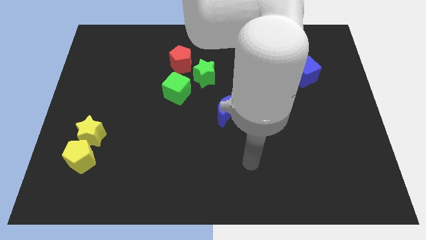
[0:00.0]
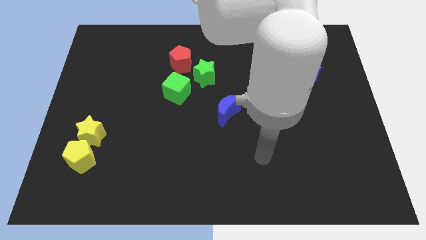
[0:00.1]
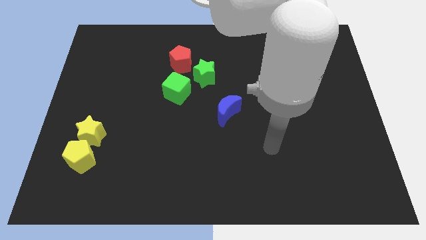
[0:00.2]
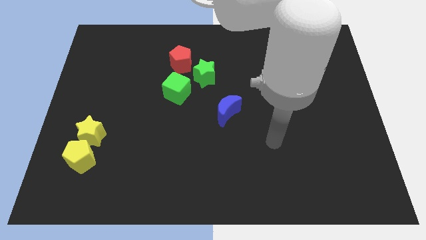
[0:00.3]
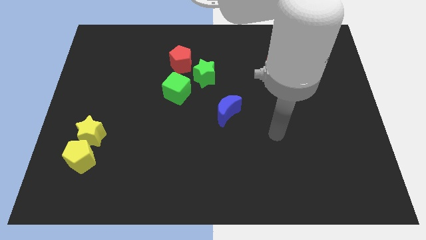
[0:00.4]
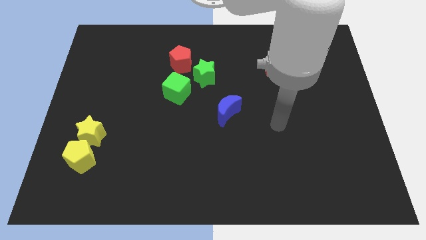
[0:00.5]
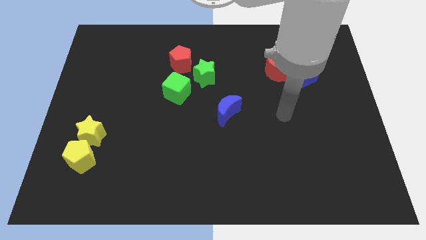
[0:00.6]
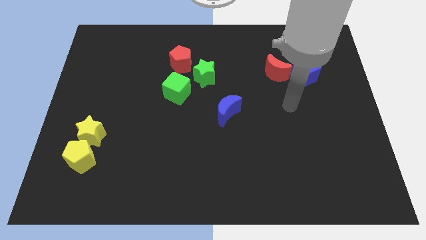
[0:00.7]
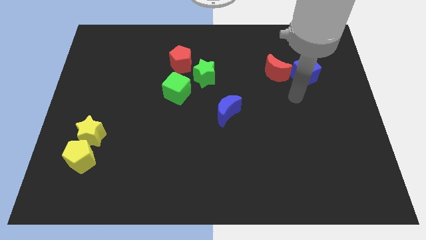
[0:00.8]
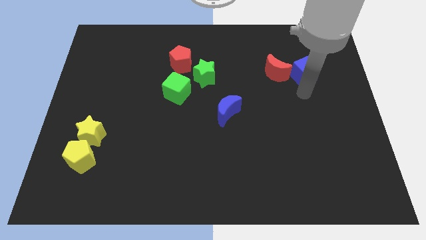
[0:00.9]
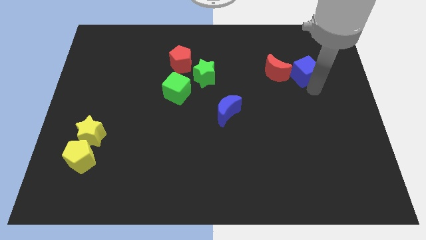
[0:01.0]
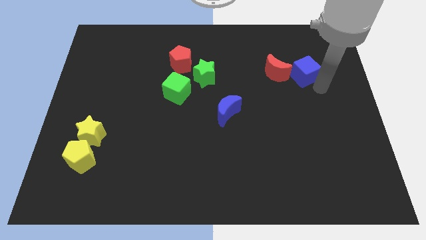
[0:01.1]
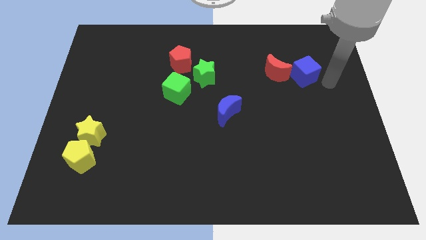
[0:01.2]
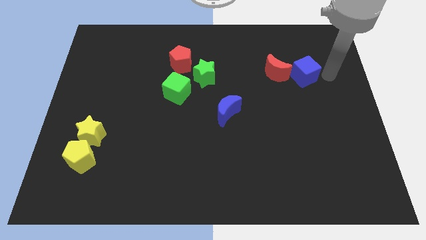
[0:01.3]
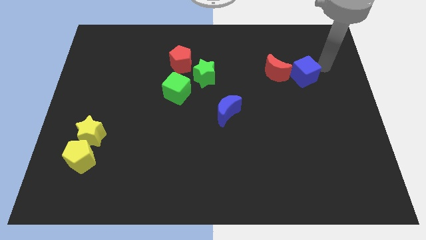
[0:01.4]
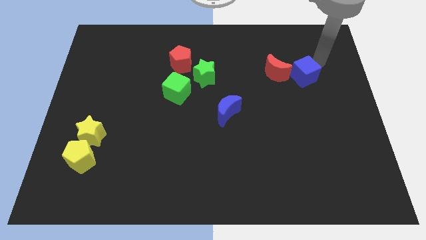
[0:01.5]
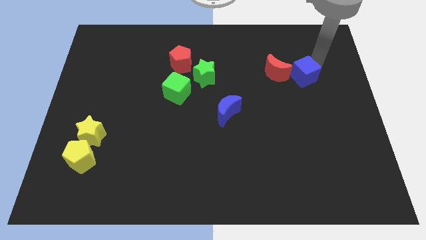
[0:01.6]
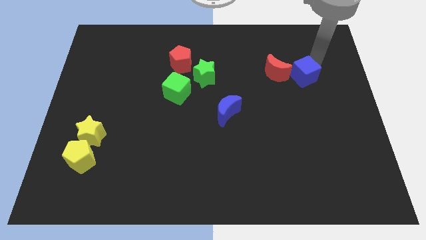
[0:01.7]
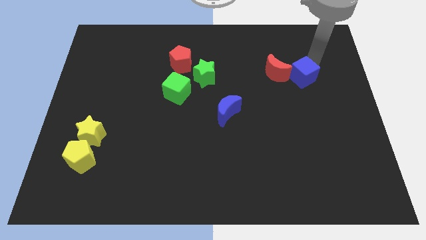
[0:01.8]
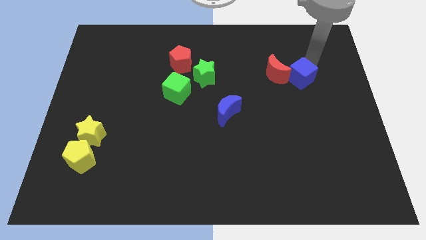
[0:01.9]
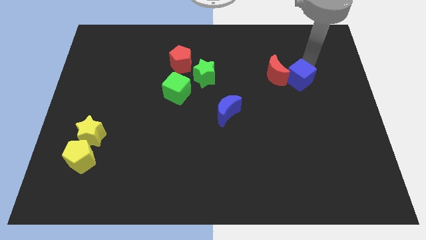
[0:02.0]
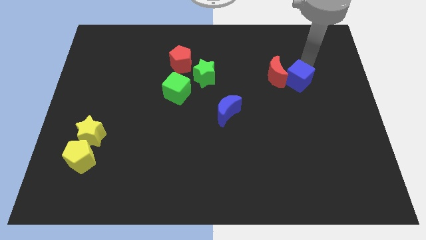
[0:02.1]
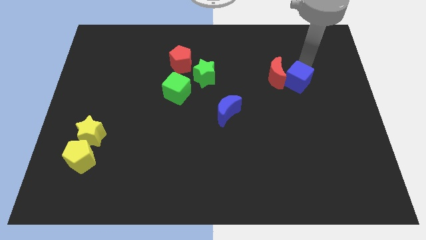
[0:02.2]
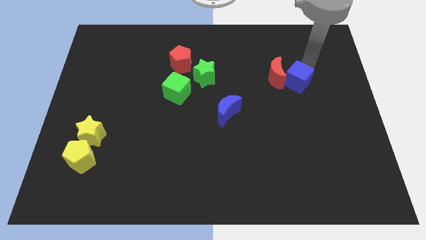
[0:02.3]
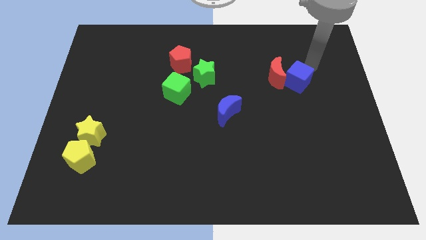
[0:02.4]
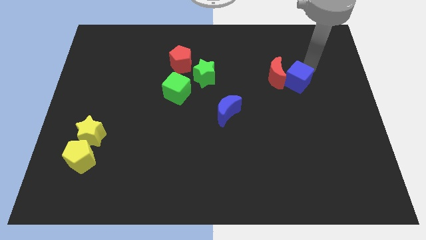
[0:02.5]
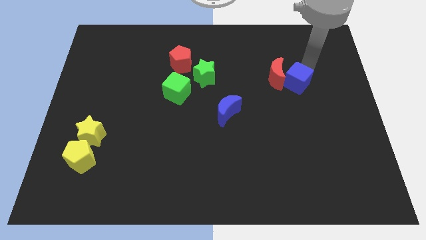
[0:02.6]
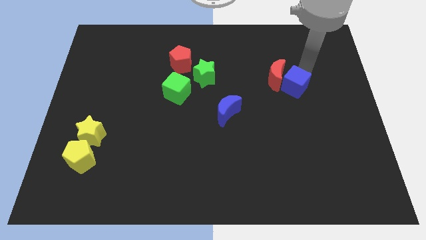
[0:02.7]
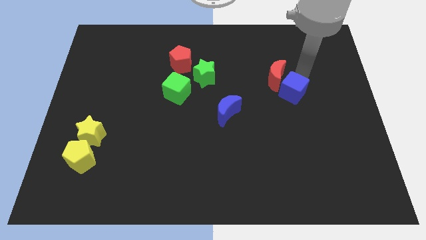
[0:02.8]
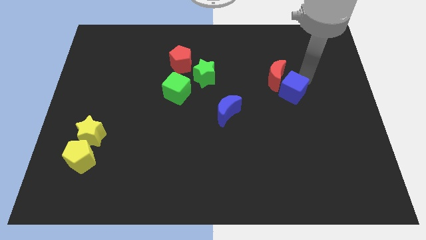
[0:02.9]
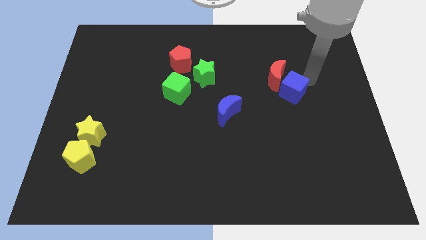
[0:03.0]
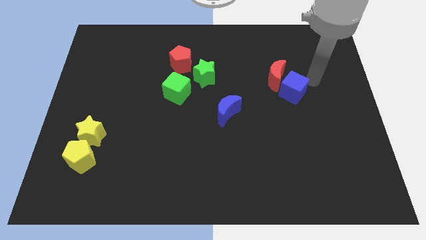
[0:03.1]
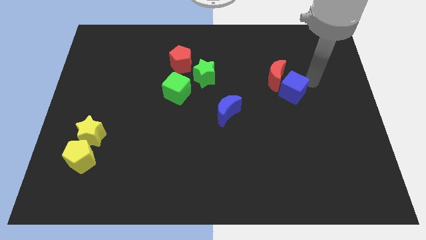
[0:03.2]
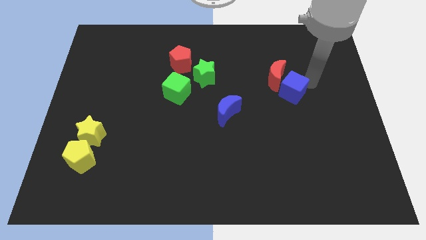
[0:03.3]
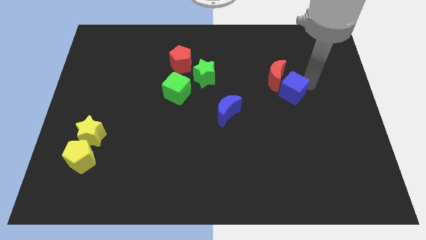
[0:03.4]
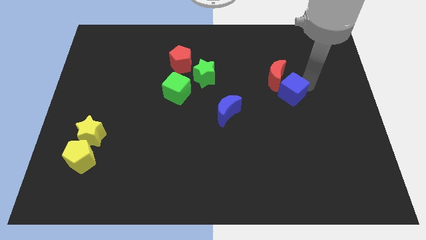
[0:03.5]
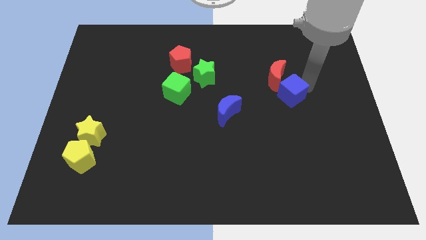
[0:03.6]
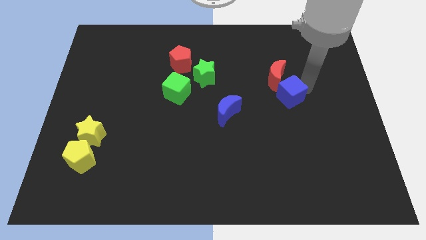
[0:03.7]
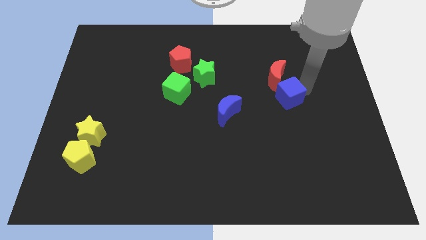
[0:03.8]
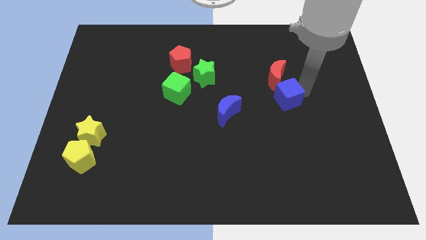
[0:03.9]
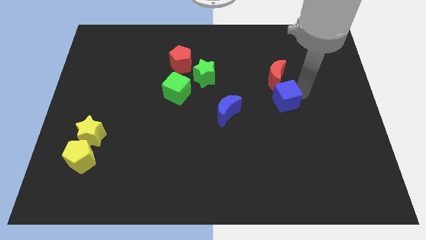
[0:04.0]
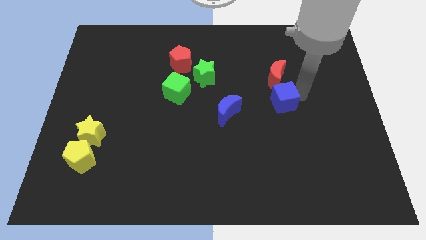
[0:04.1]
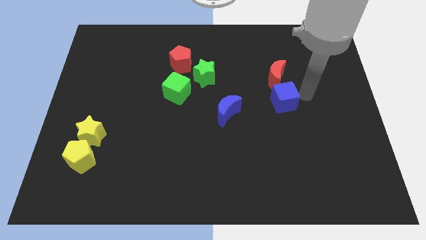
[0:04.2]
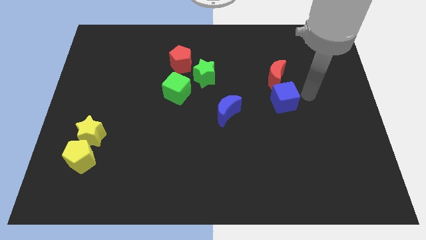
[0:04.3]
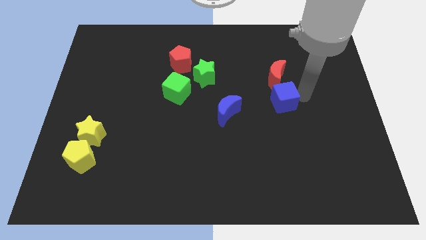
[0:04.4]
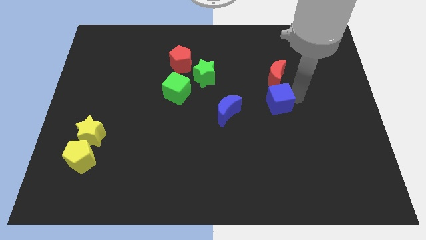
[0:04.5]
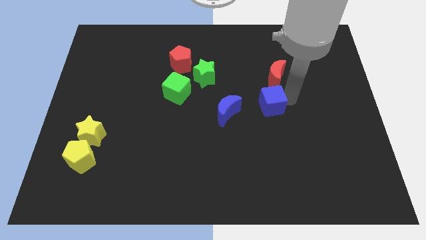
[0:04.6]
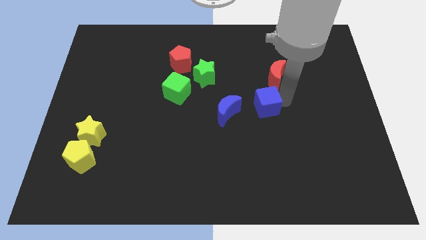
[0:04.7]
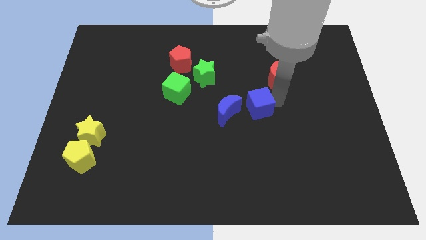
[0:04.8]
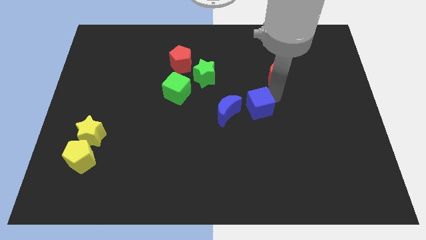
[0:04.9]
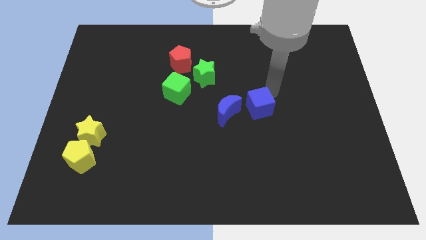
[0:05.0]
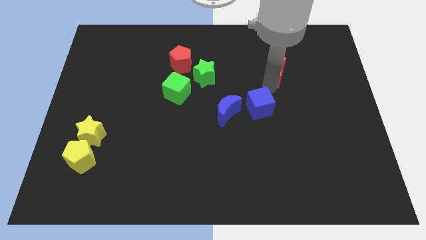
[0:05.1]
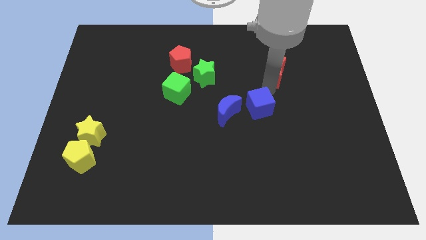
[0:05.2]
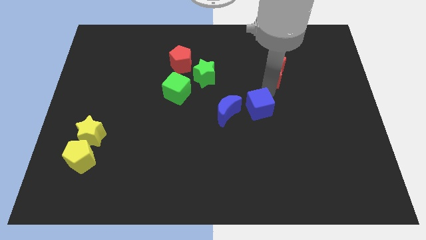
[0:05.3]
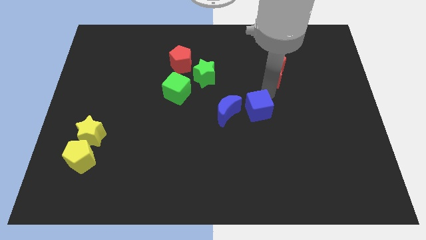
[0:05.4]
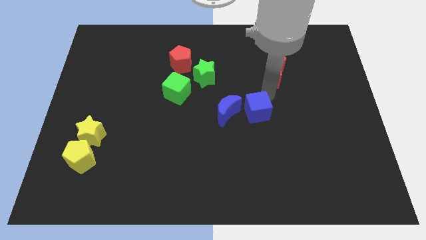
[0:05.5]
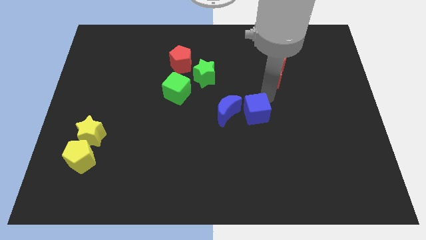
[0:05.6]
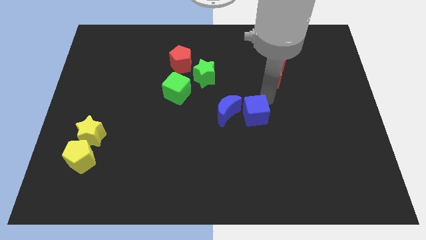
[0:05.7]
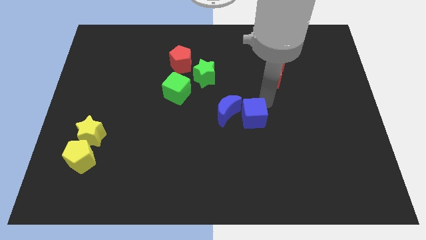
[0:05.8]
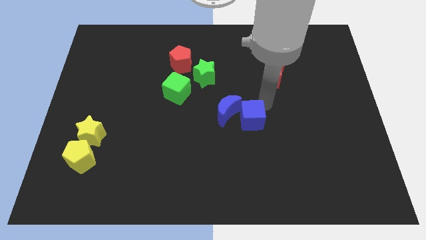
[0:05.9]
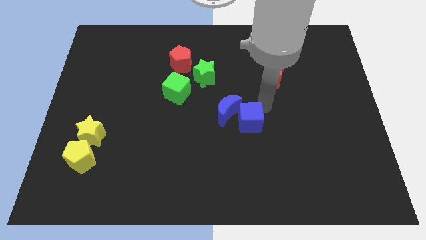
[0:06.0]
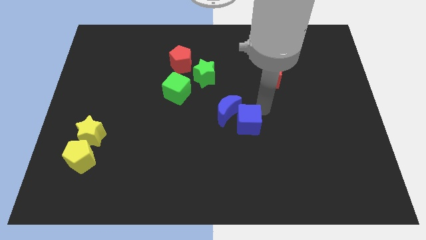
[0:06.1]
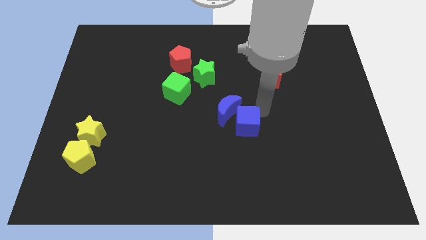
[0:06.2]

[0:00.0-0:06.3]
move the blue cube to the bottom side of the blue moon

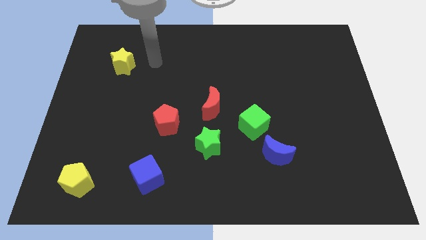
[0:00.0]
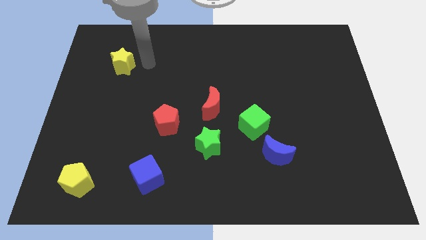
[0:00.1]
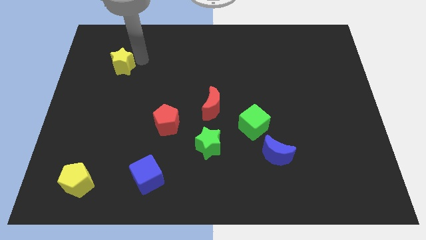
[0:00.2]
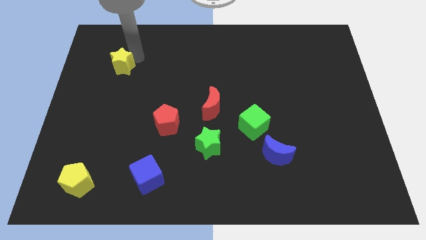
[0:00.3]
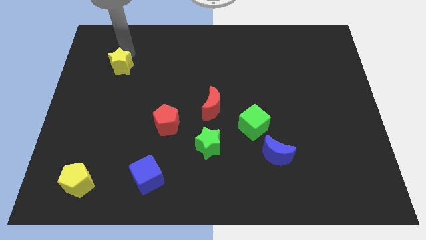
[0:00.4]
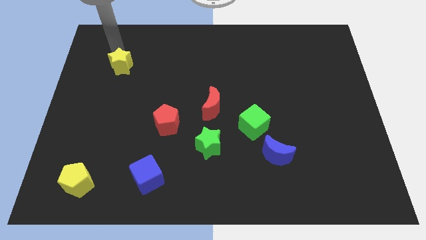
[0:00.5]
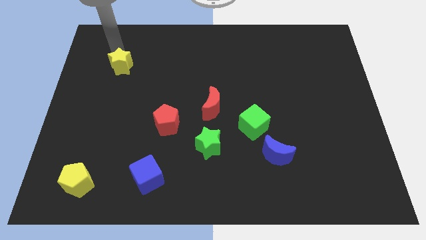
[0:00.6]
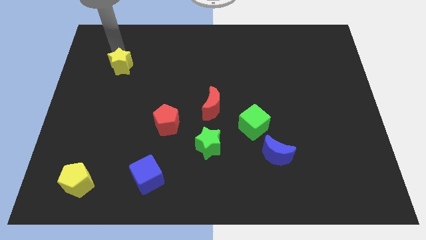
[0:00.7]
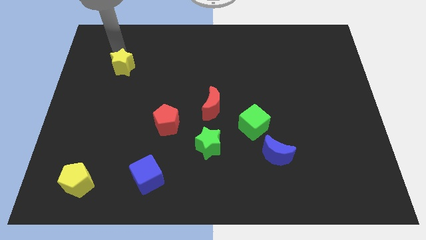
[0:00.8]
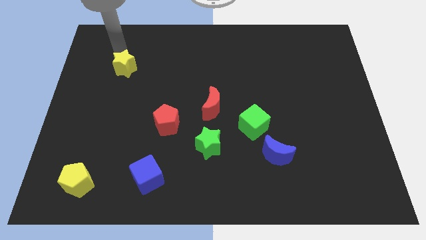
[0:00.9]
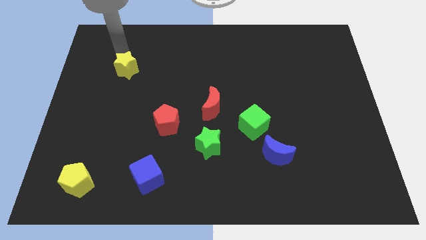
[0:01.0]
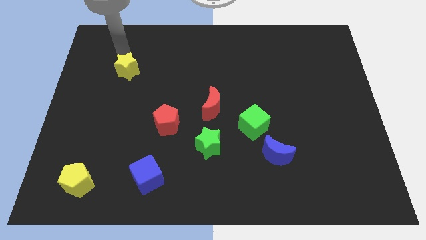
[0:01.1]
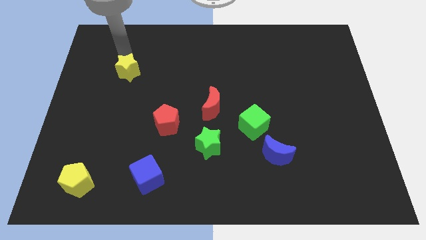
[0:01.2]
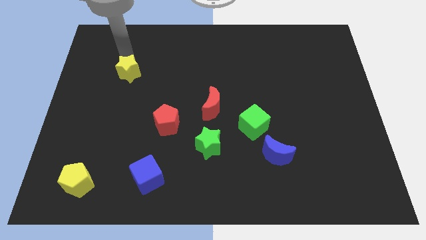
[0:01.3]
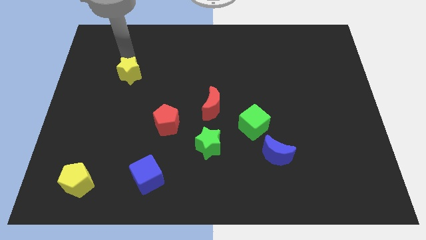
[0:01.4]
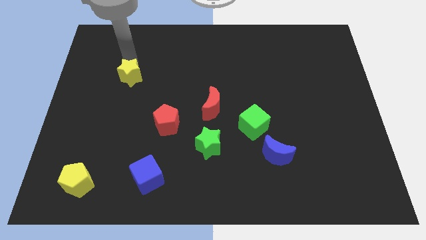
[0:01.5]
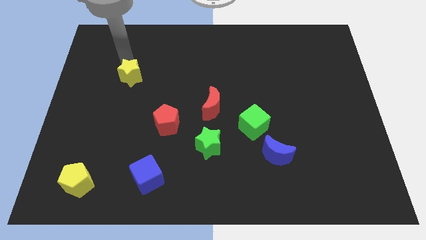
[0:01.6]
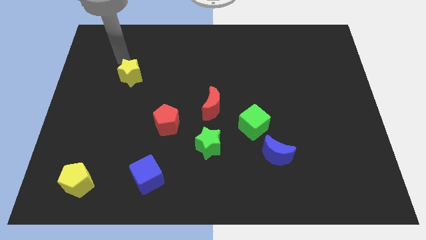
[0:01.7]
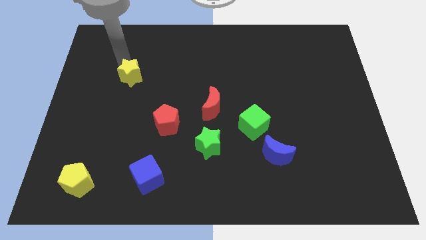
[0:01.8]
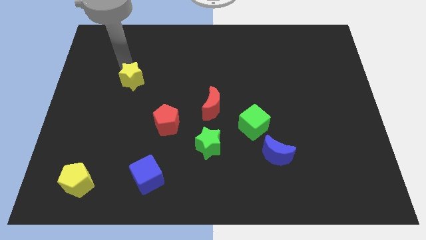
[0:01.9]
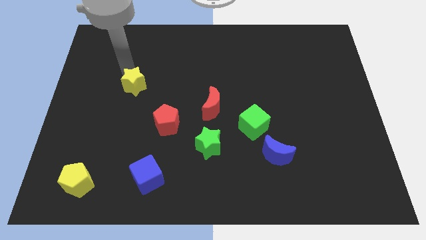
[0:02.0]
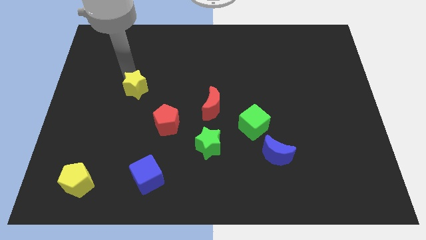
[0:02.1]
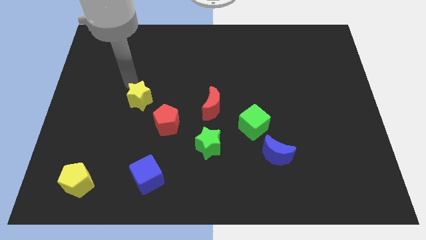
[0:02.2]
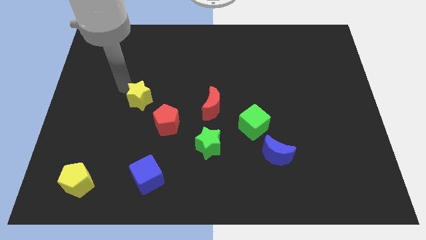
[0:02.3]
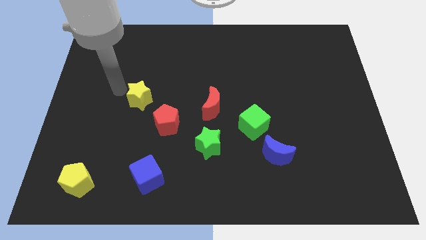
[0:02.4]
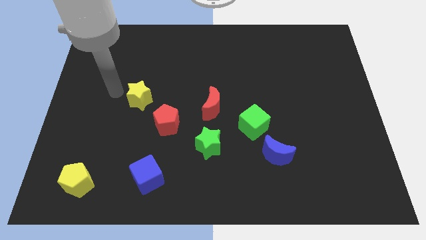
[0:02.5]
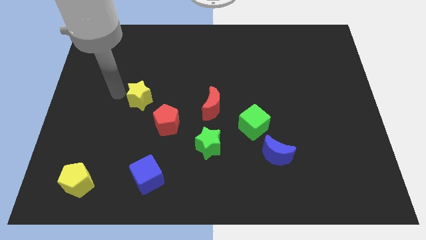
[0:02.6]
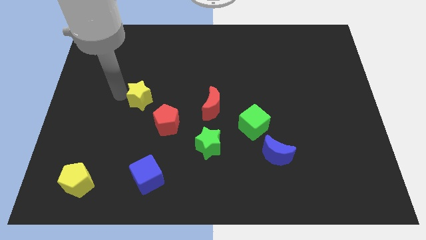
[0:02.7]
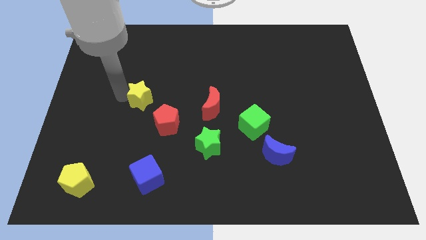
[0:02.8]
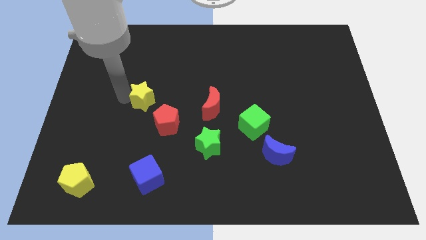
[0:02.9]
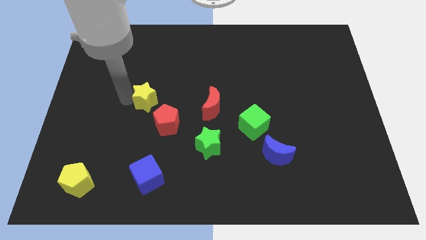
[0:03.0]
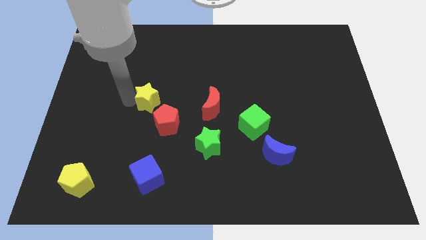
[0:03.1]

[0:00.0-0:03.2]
push the yellow star to the left side of the red moon
